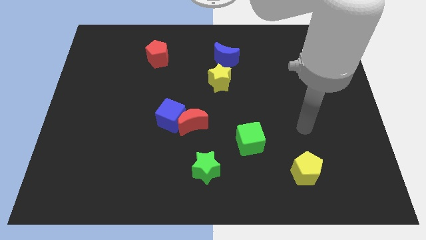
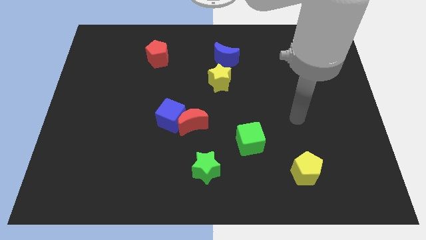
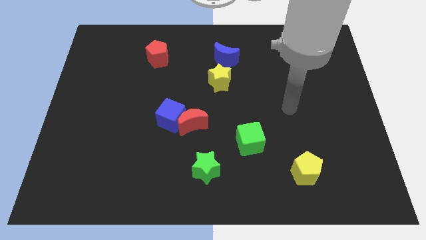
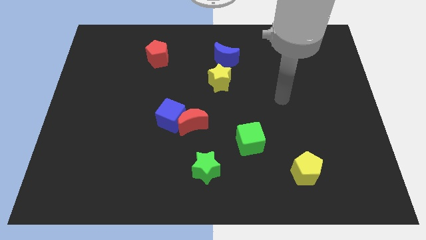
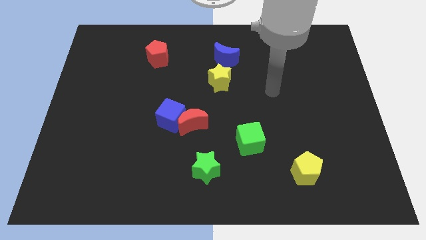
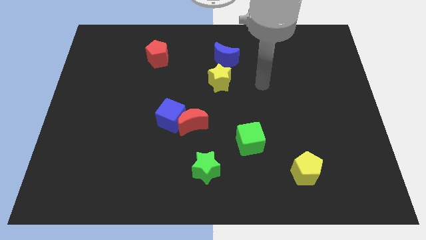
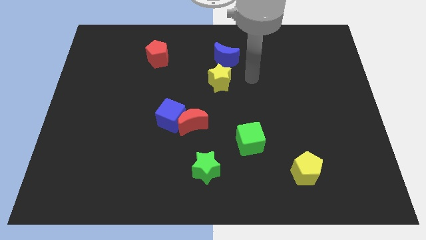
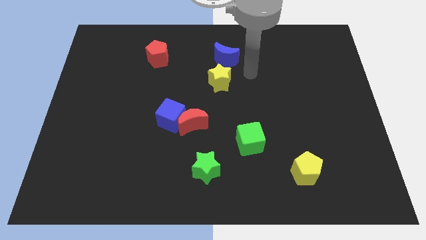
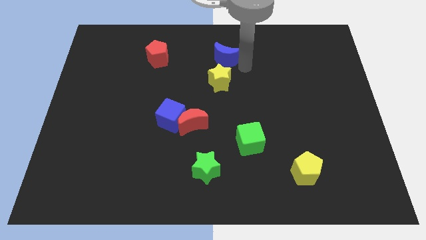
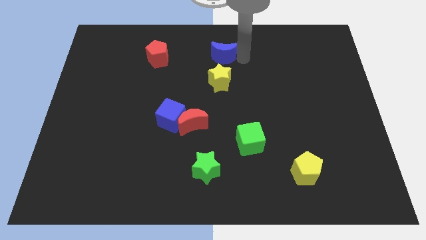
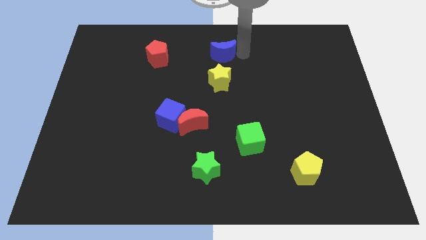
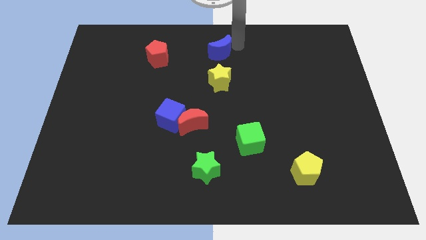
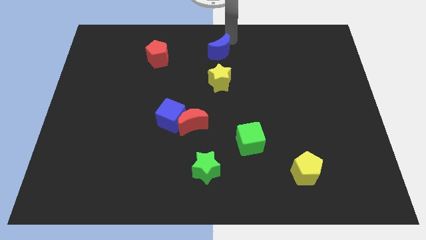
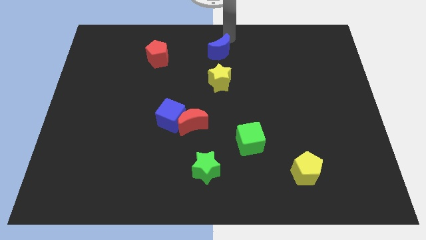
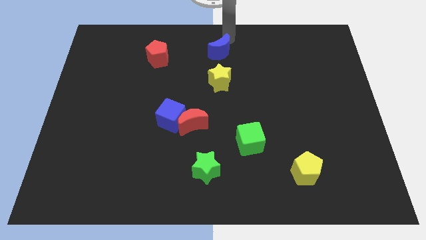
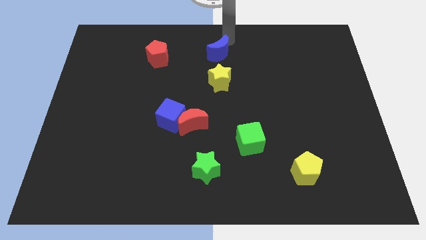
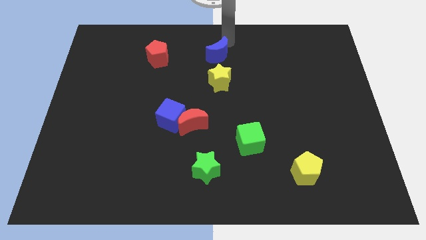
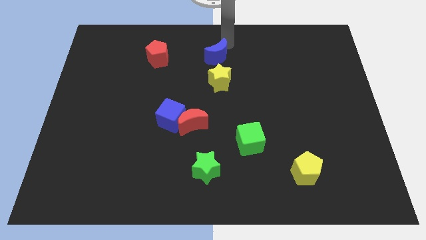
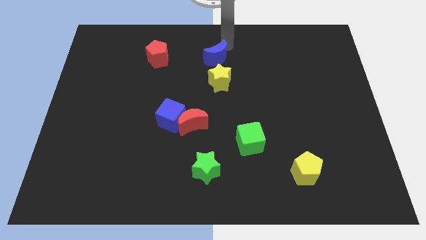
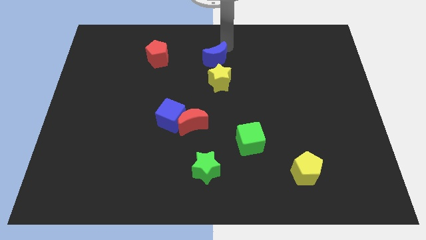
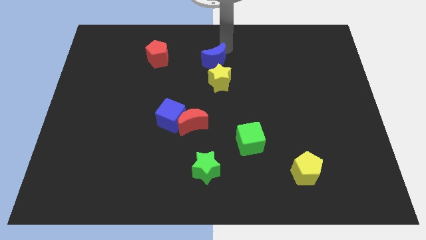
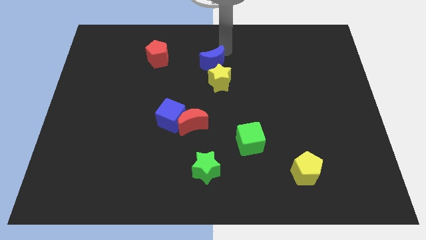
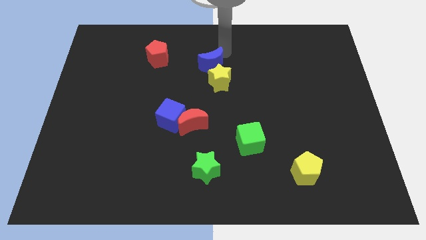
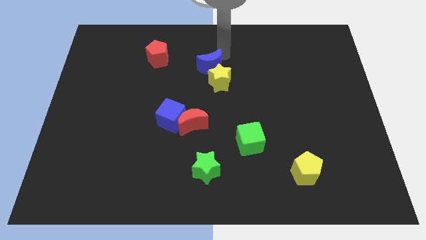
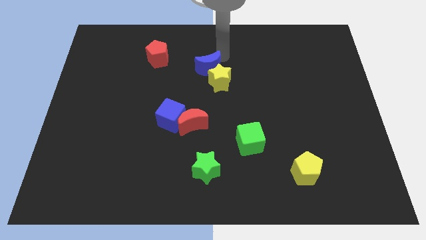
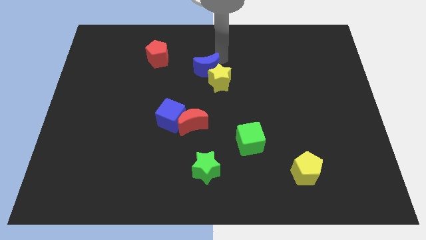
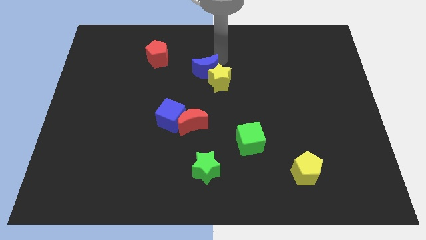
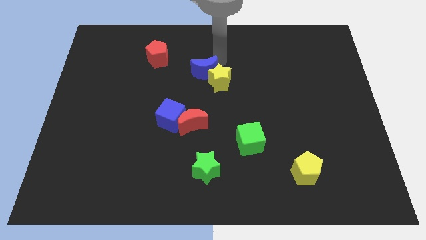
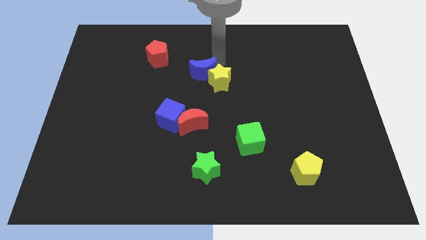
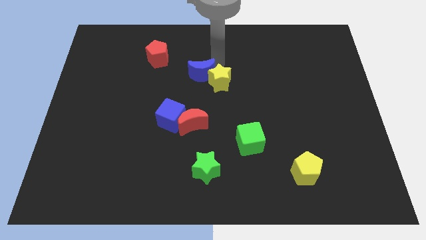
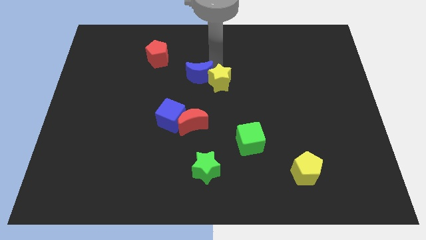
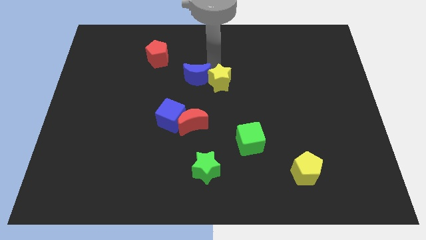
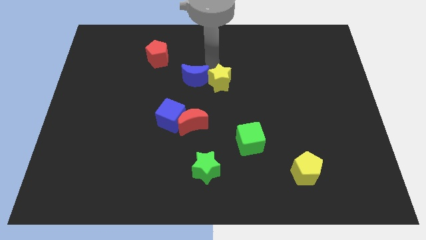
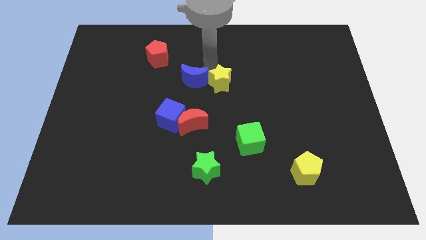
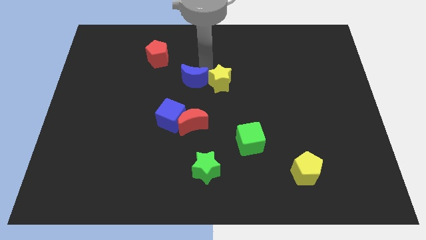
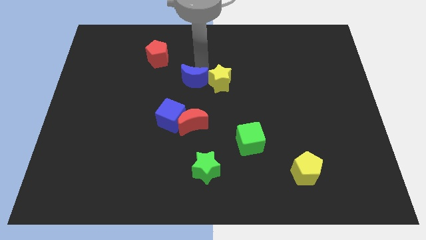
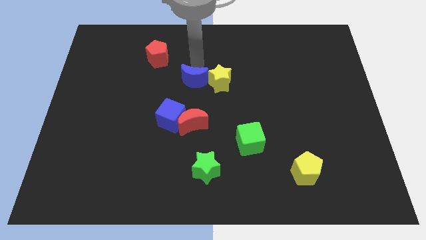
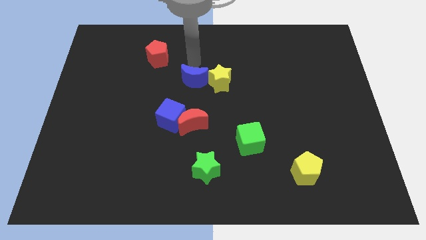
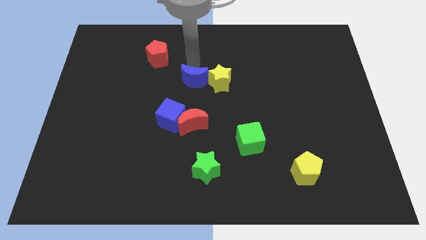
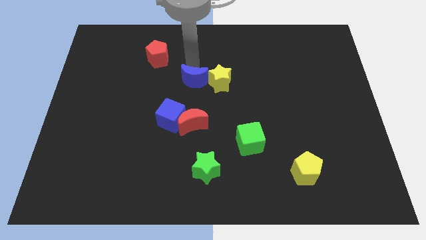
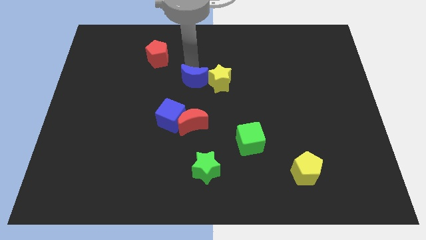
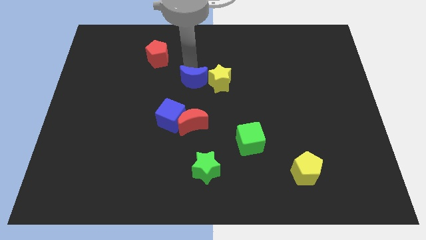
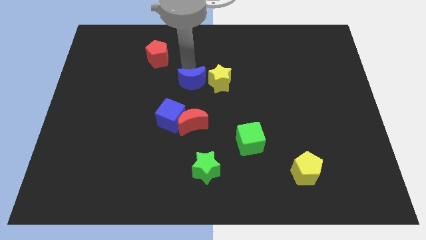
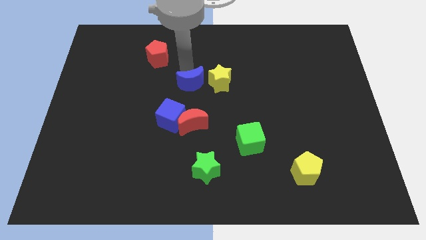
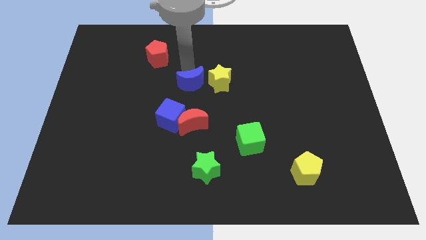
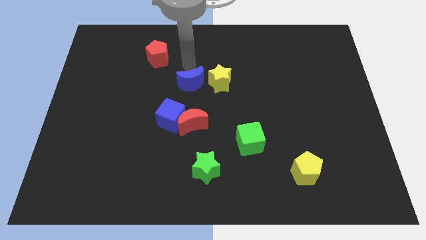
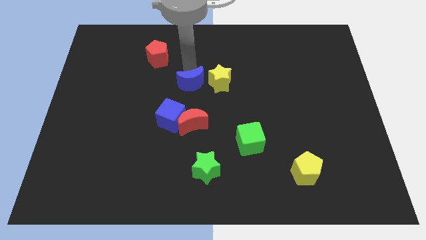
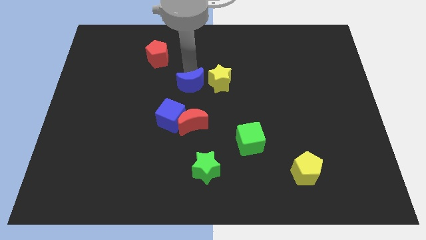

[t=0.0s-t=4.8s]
move the blue moon diagonally up and to the right of the blue cube

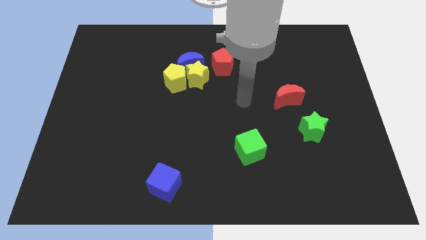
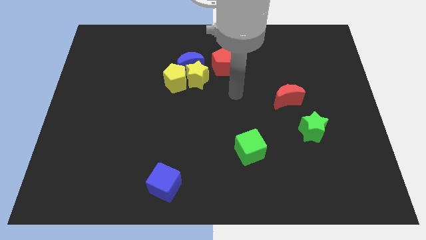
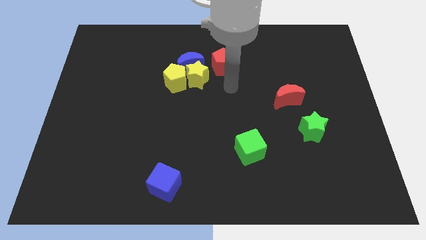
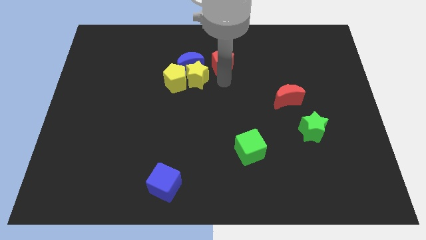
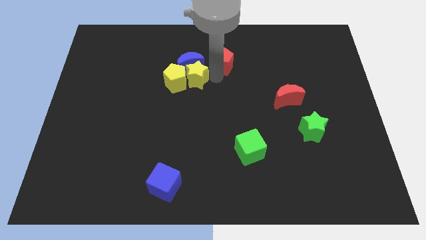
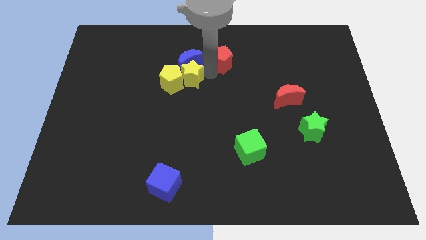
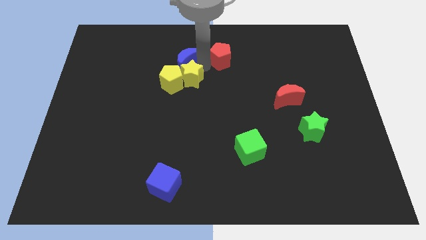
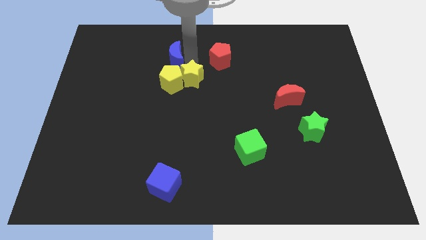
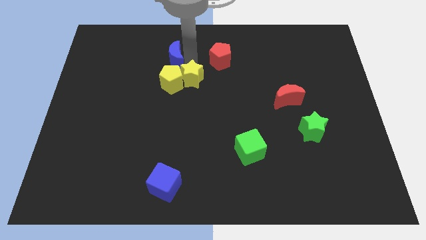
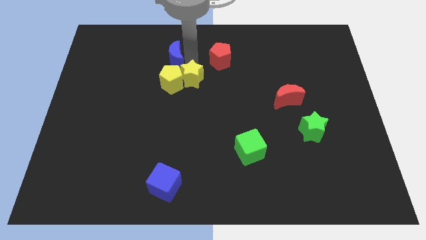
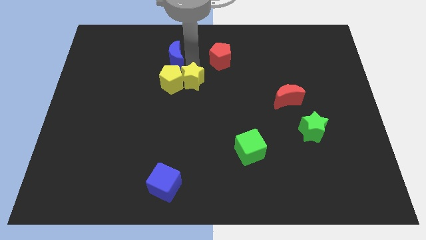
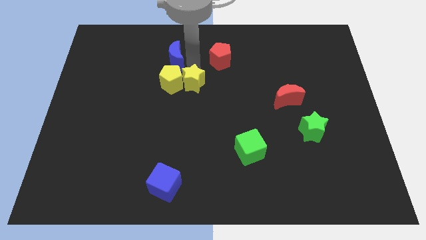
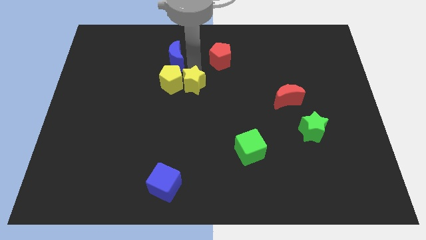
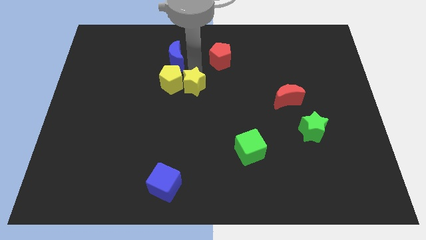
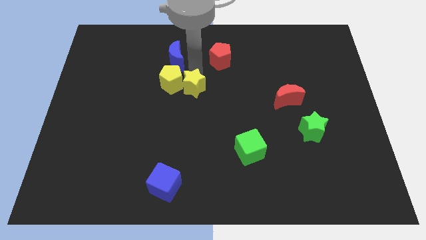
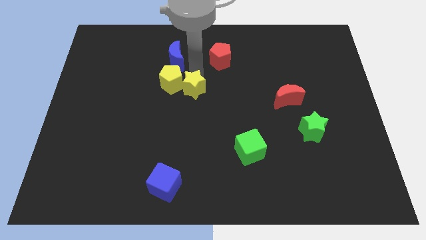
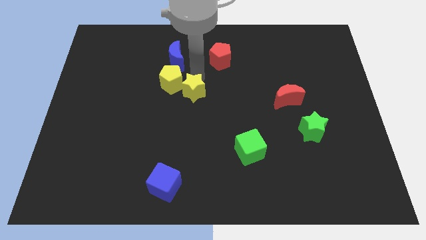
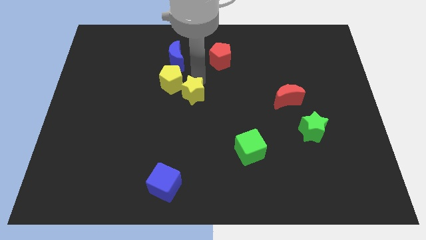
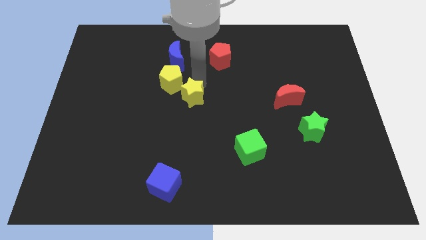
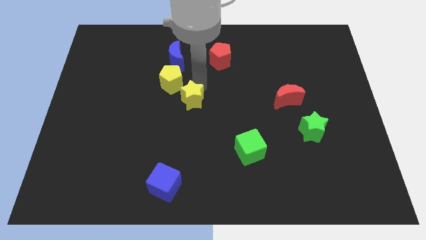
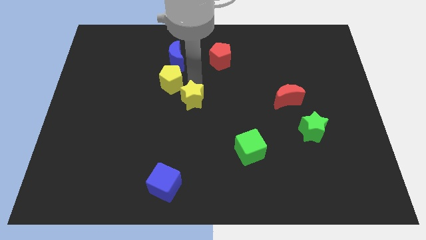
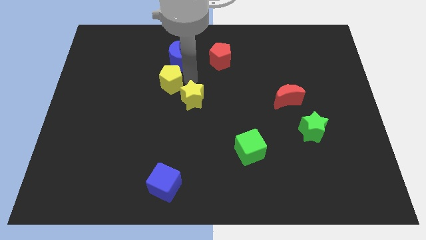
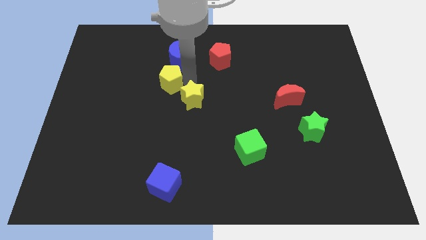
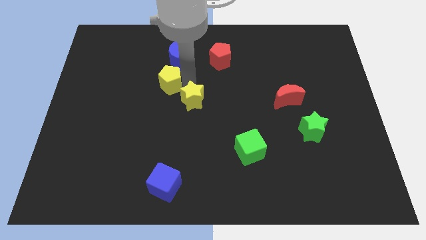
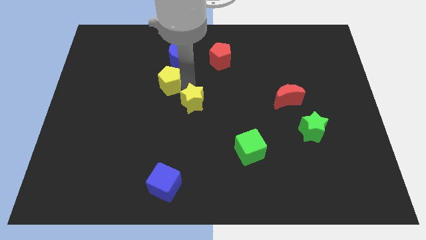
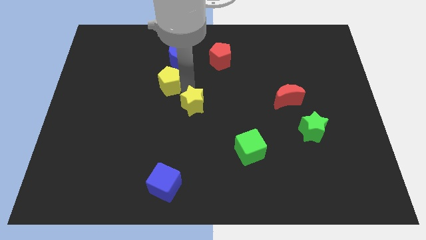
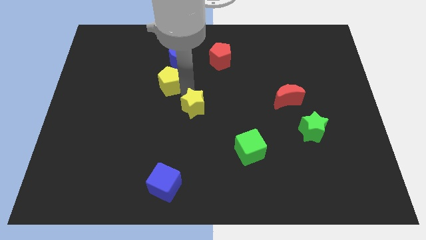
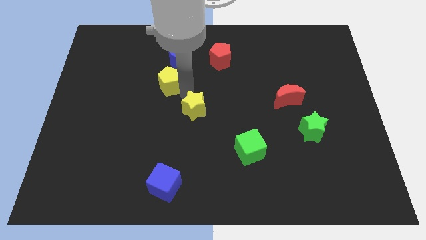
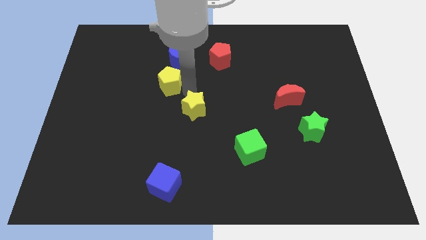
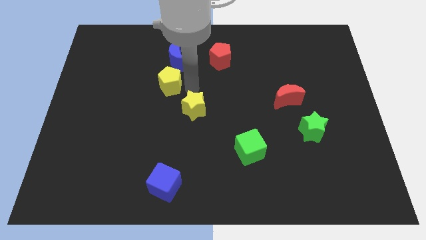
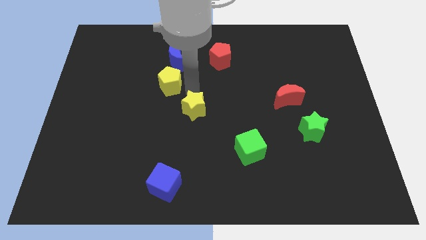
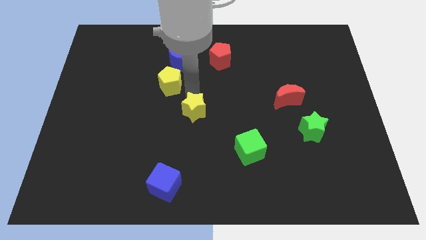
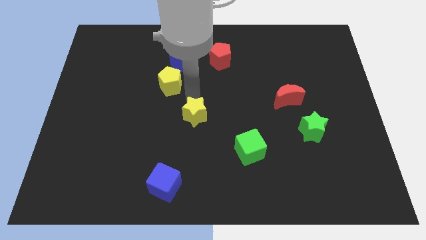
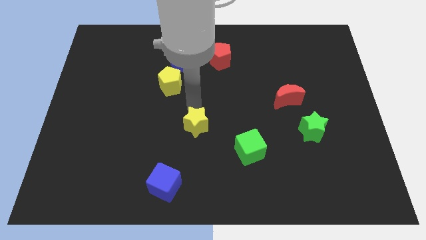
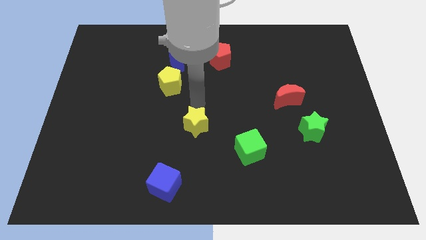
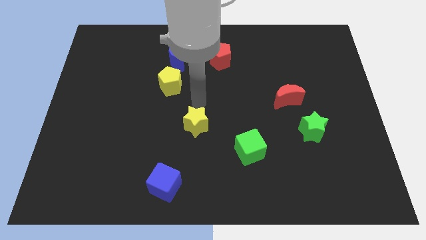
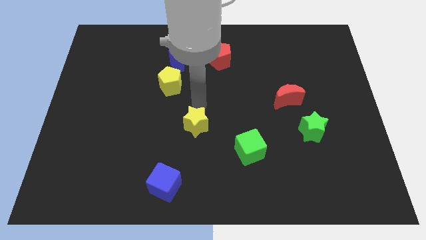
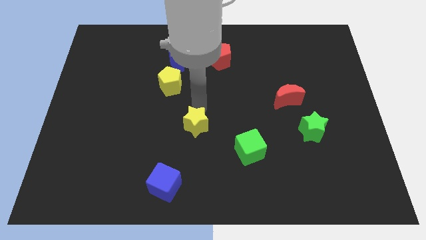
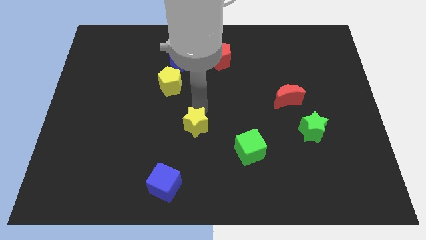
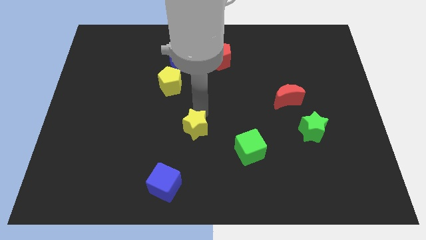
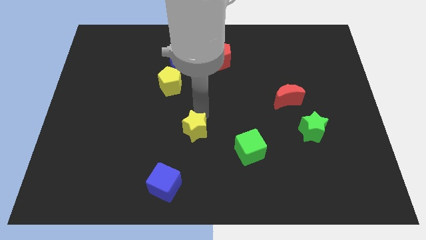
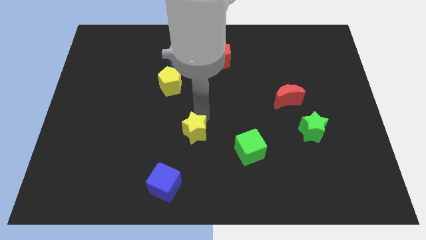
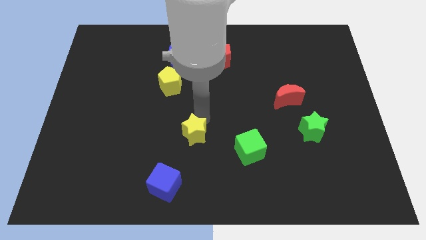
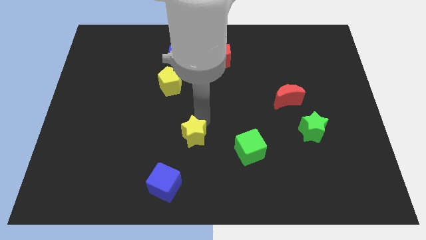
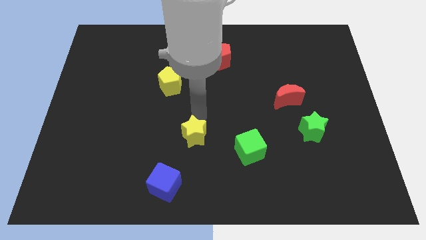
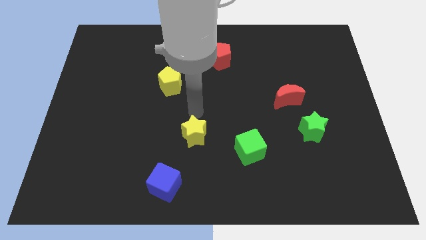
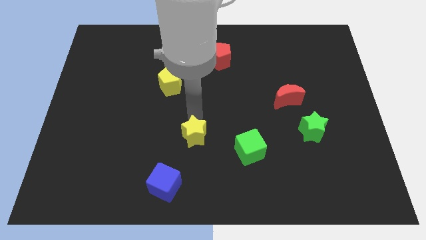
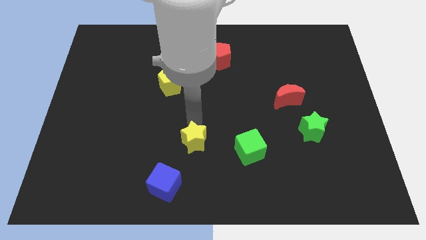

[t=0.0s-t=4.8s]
push the yellow star to the top right side of the blue cube
